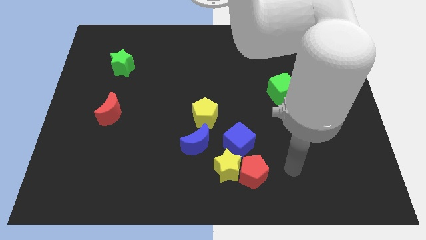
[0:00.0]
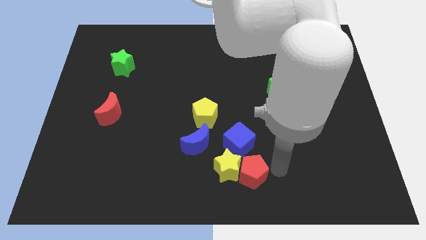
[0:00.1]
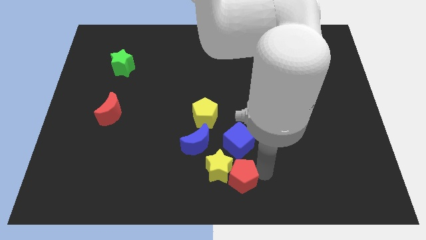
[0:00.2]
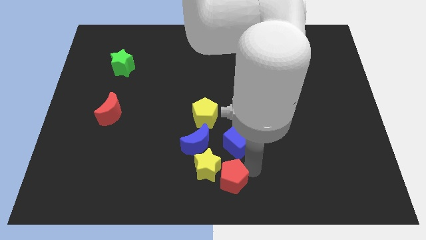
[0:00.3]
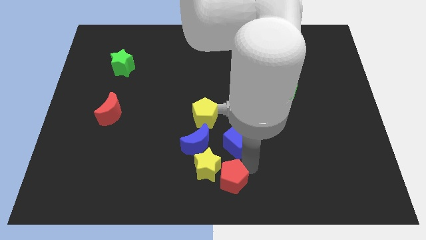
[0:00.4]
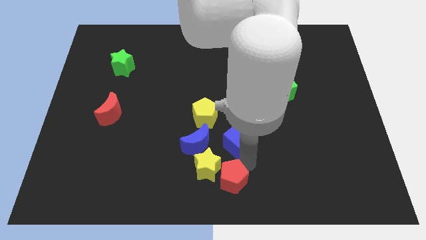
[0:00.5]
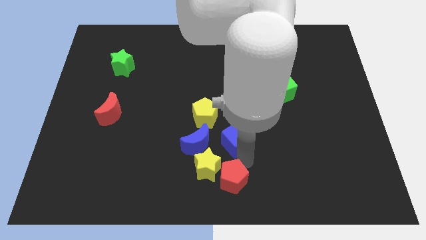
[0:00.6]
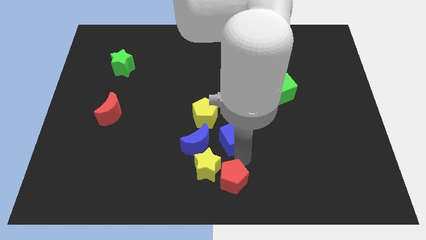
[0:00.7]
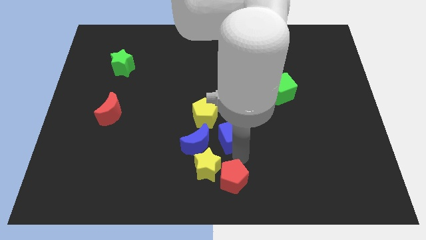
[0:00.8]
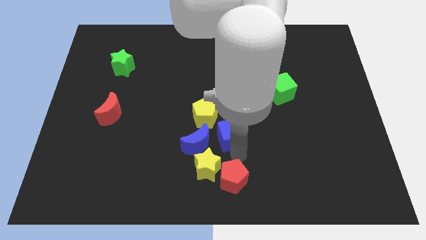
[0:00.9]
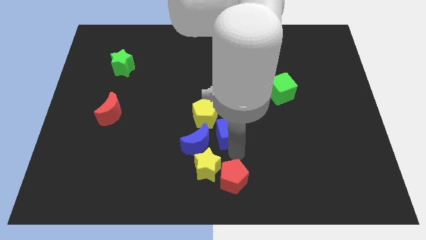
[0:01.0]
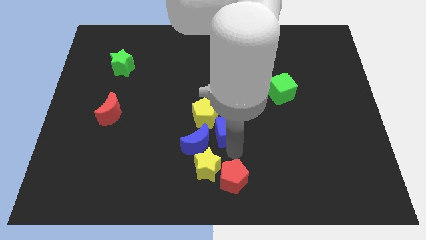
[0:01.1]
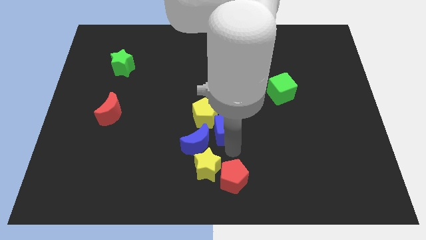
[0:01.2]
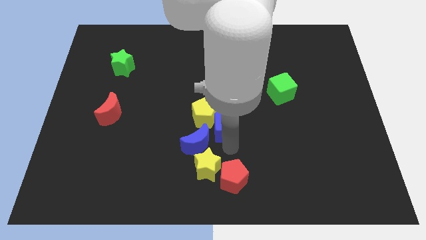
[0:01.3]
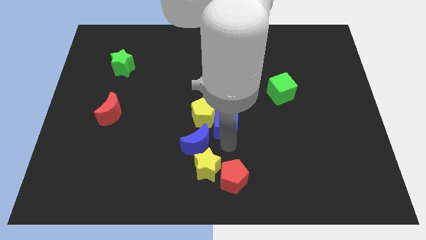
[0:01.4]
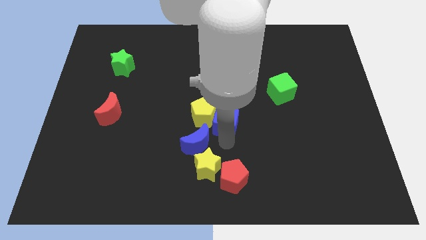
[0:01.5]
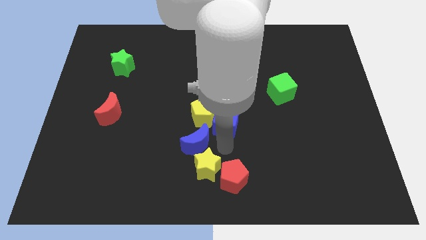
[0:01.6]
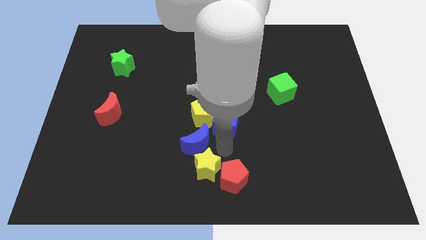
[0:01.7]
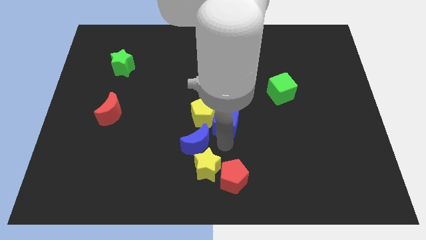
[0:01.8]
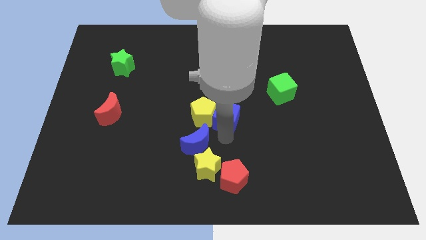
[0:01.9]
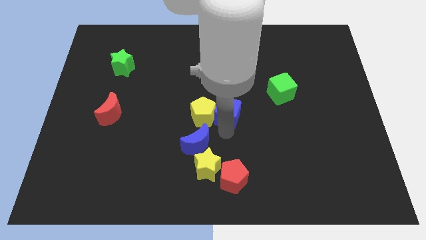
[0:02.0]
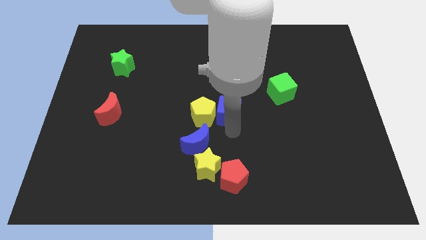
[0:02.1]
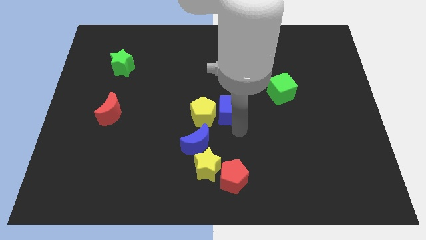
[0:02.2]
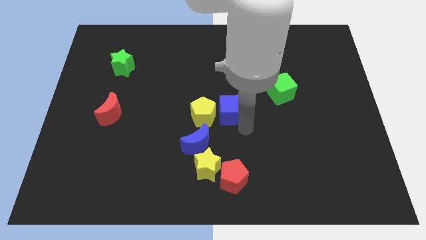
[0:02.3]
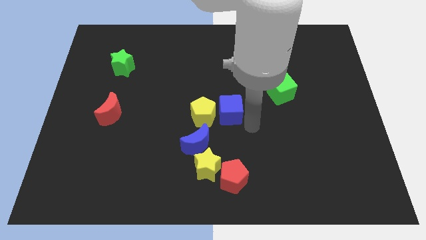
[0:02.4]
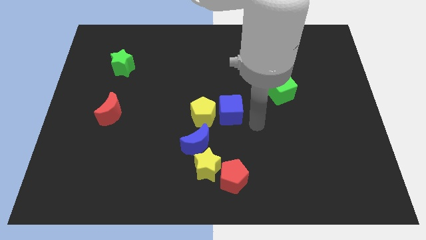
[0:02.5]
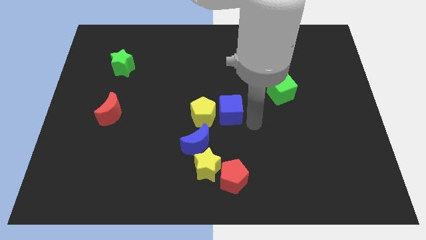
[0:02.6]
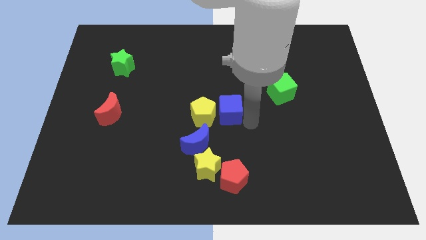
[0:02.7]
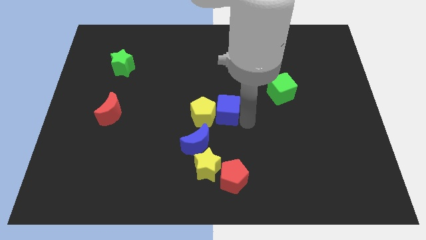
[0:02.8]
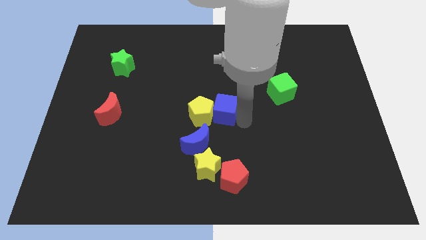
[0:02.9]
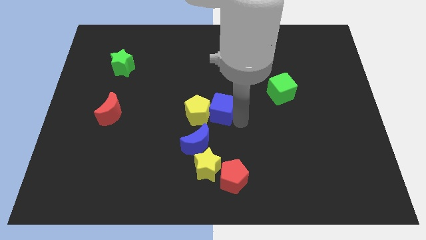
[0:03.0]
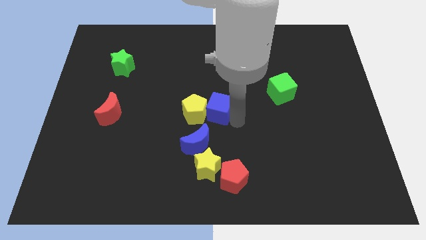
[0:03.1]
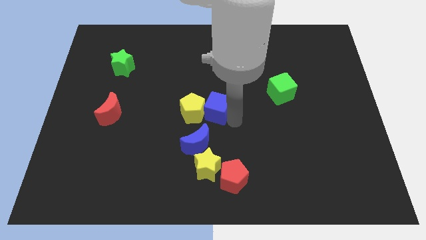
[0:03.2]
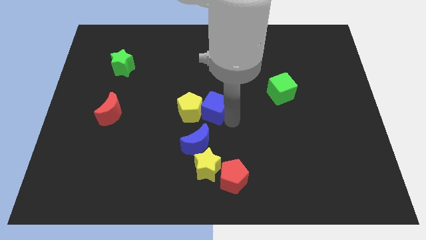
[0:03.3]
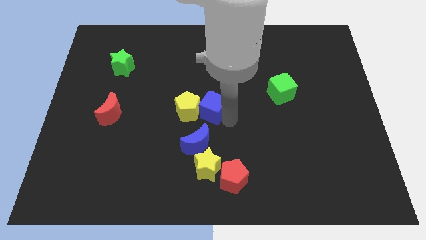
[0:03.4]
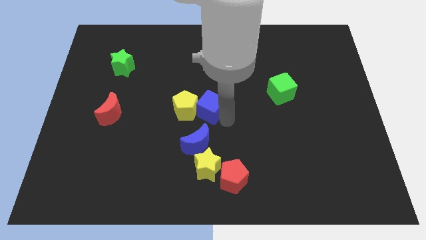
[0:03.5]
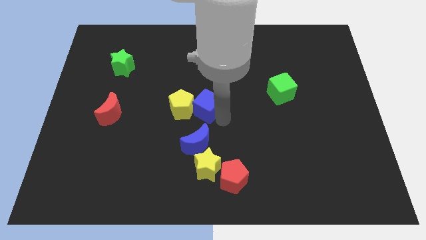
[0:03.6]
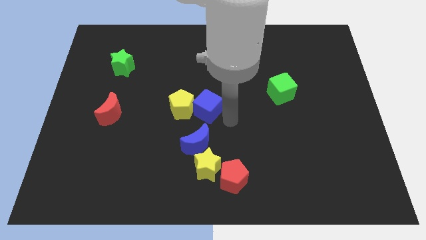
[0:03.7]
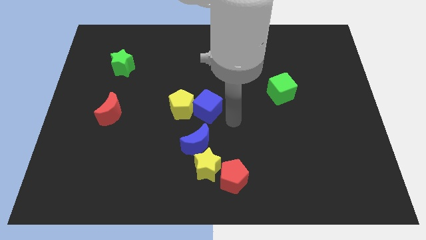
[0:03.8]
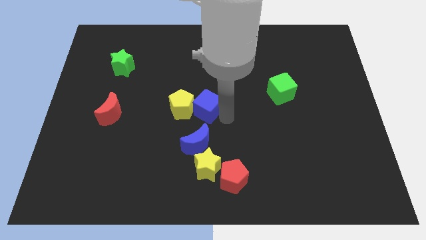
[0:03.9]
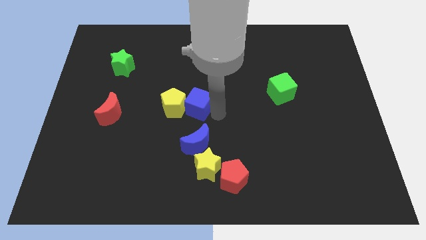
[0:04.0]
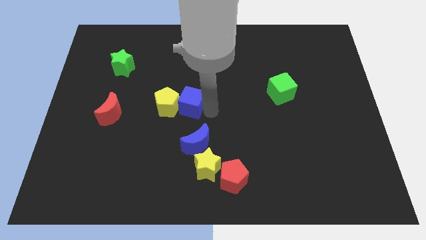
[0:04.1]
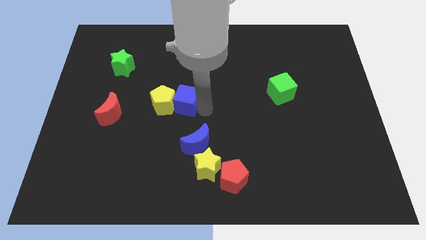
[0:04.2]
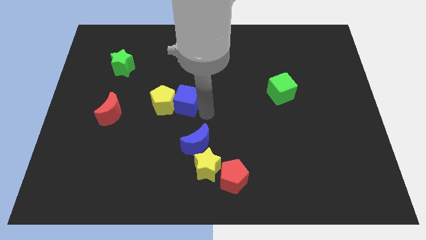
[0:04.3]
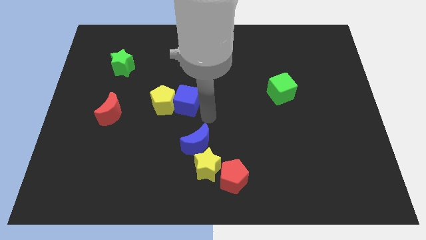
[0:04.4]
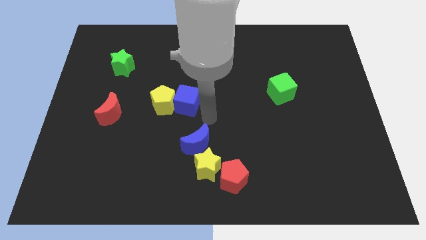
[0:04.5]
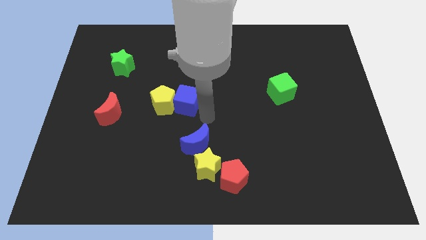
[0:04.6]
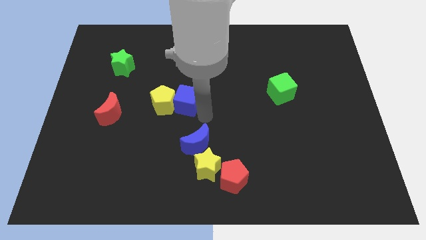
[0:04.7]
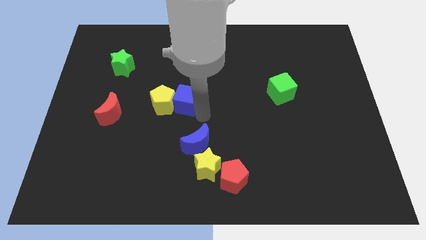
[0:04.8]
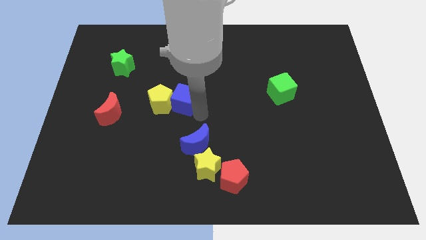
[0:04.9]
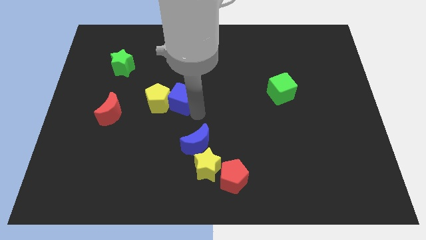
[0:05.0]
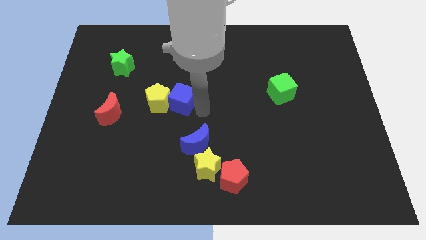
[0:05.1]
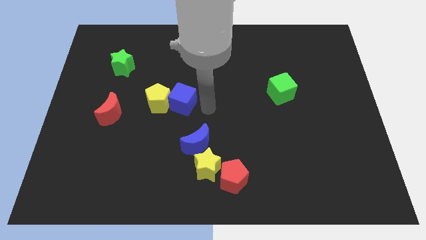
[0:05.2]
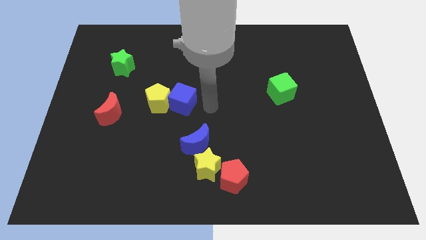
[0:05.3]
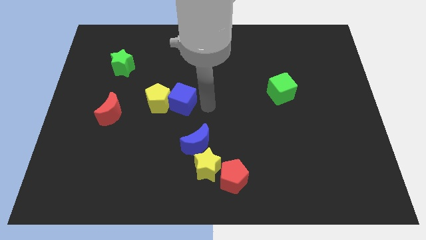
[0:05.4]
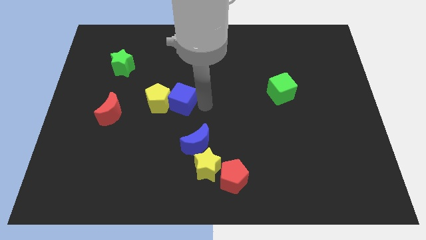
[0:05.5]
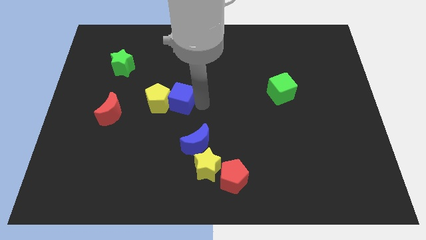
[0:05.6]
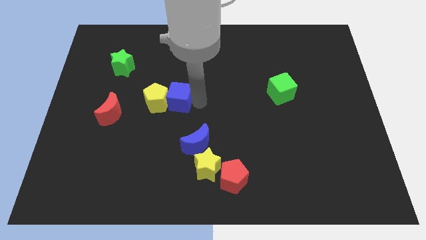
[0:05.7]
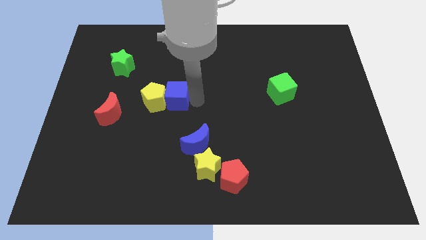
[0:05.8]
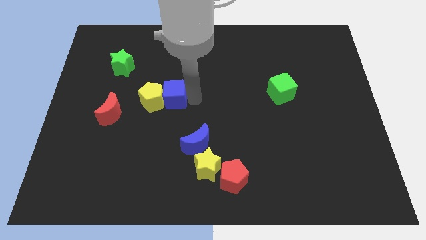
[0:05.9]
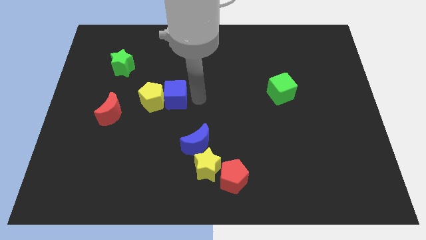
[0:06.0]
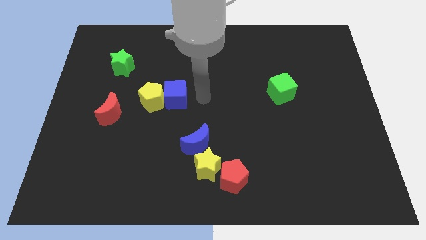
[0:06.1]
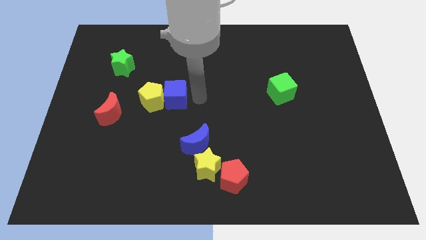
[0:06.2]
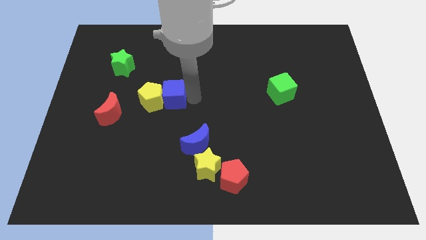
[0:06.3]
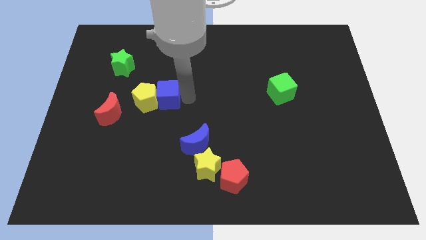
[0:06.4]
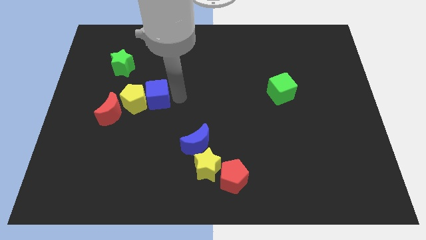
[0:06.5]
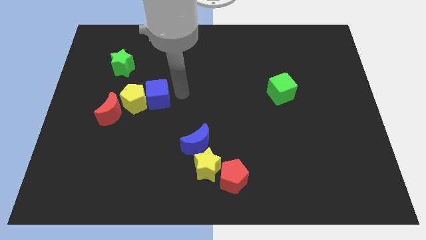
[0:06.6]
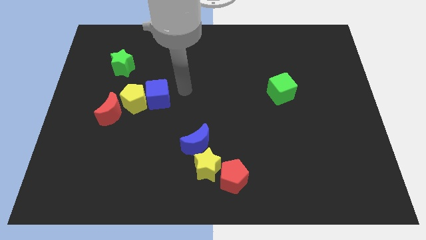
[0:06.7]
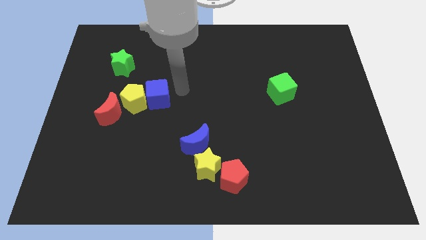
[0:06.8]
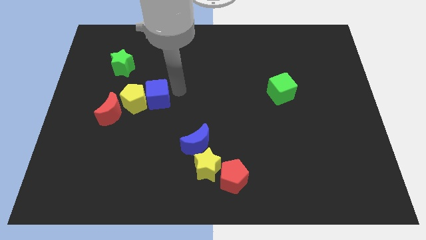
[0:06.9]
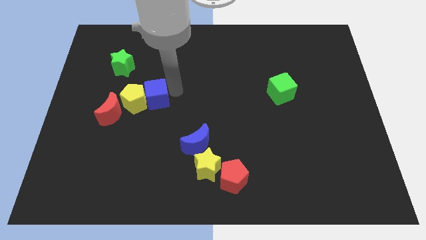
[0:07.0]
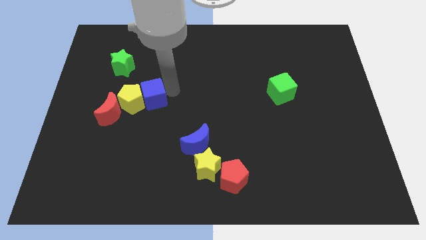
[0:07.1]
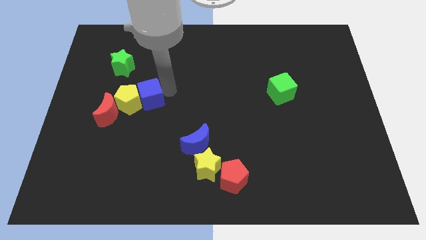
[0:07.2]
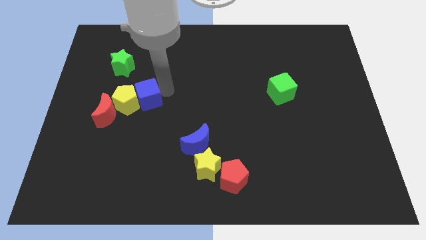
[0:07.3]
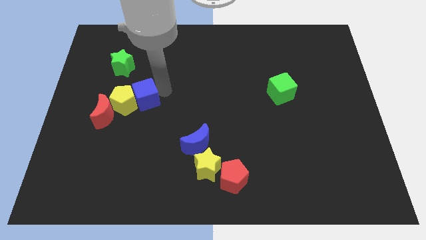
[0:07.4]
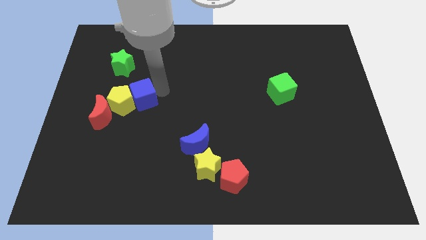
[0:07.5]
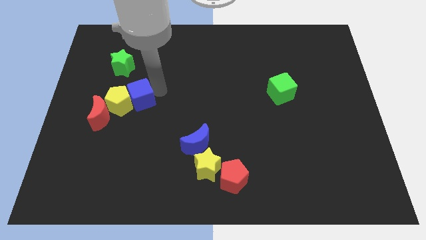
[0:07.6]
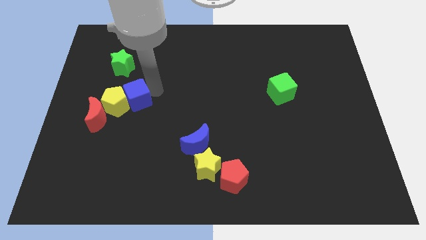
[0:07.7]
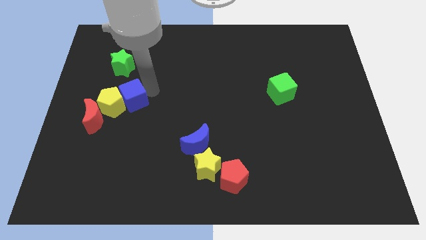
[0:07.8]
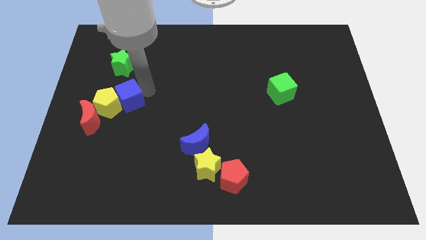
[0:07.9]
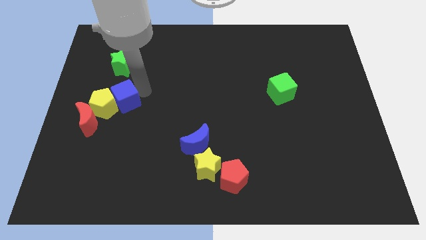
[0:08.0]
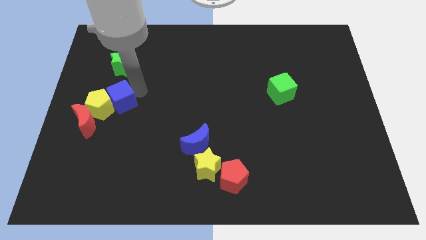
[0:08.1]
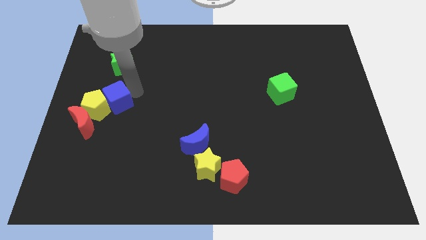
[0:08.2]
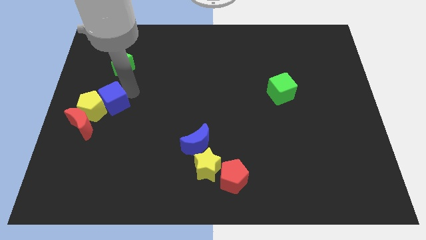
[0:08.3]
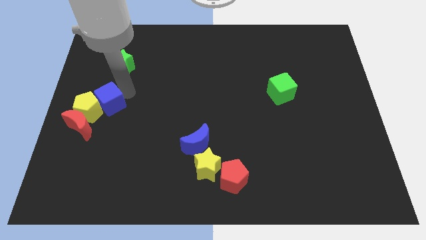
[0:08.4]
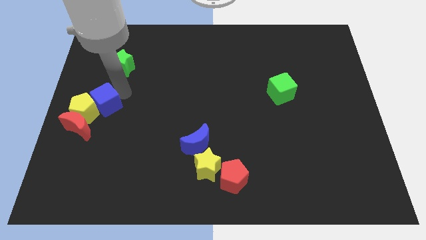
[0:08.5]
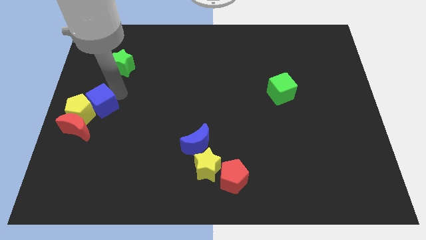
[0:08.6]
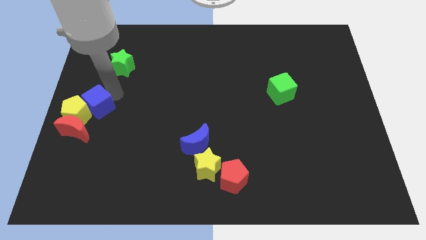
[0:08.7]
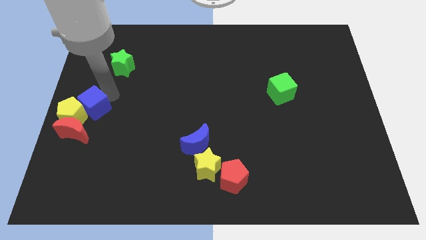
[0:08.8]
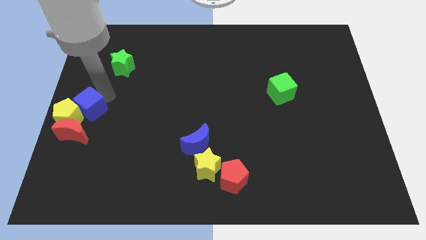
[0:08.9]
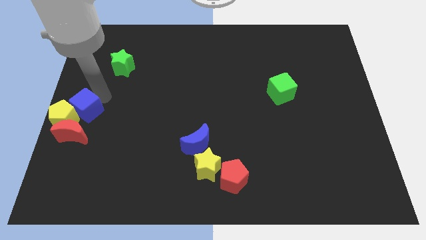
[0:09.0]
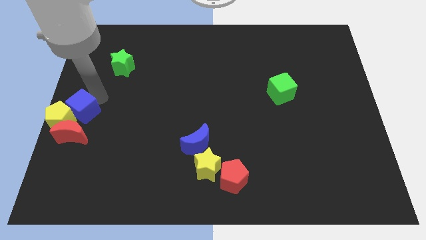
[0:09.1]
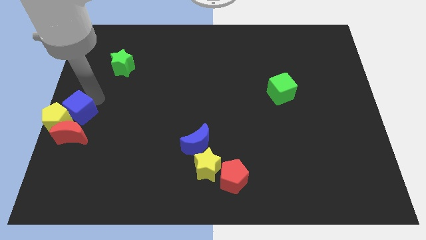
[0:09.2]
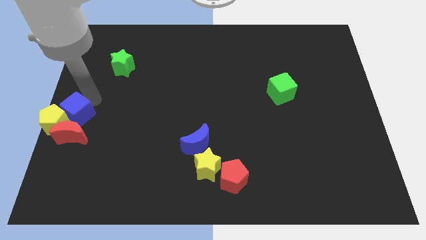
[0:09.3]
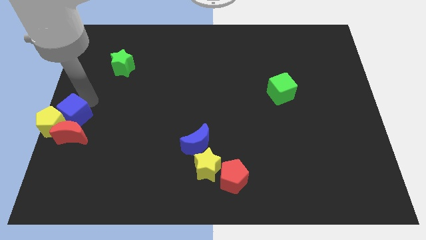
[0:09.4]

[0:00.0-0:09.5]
push the blue cube towards the red moon
